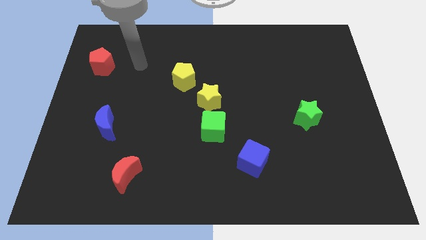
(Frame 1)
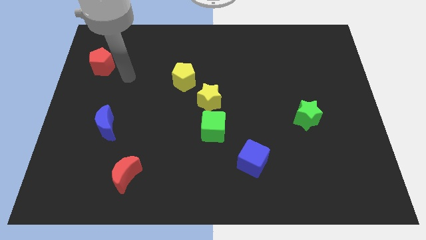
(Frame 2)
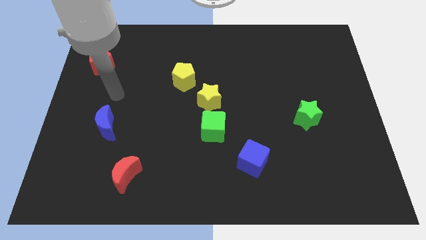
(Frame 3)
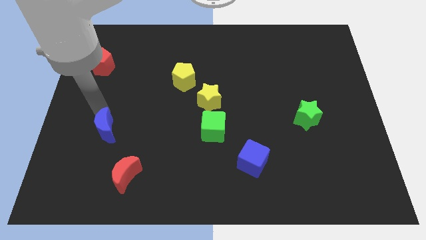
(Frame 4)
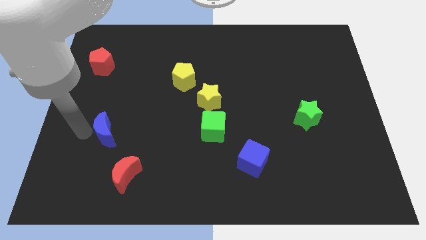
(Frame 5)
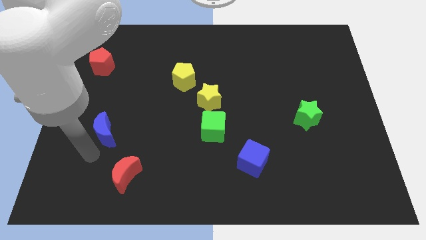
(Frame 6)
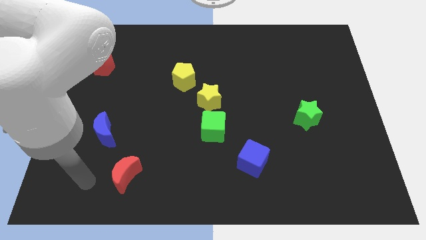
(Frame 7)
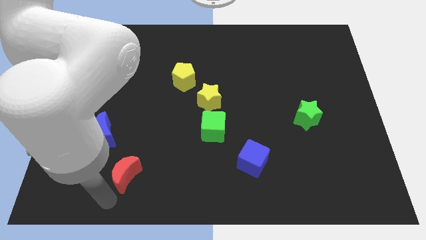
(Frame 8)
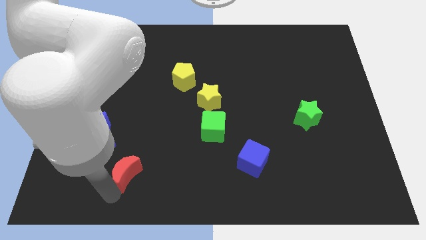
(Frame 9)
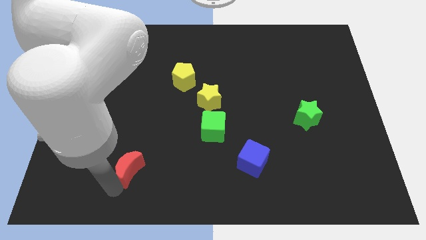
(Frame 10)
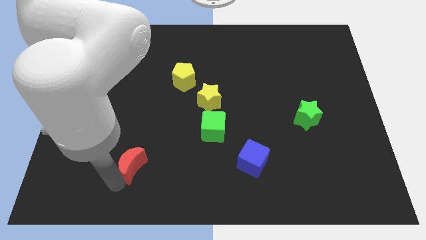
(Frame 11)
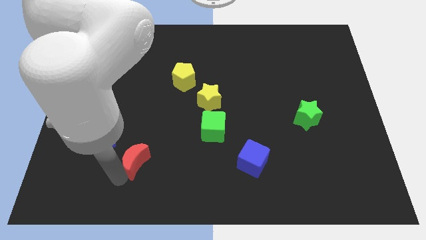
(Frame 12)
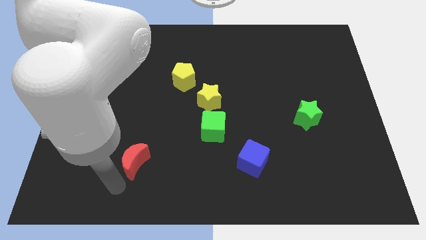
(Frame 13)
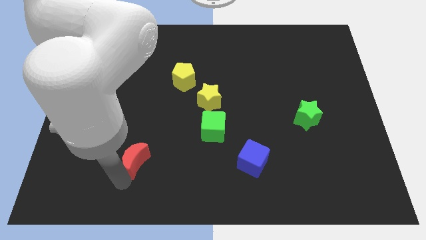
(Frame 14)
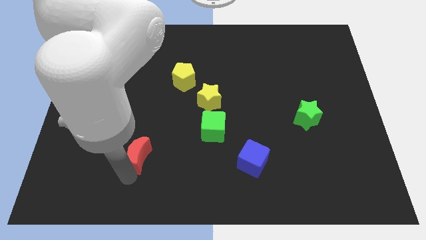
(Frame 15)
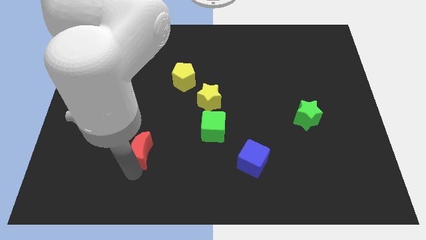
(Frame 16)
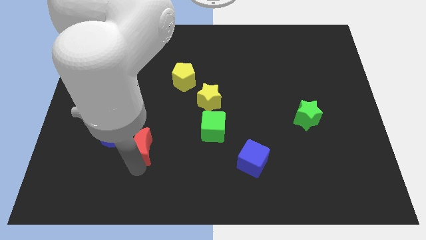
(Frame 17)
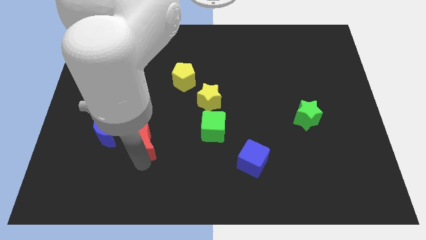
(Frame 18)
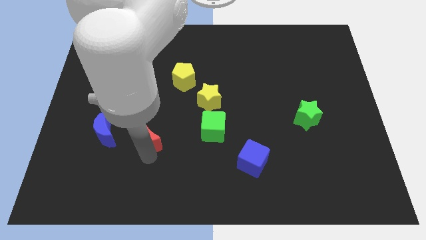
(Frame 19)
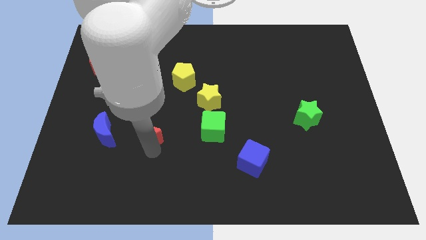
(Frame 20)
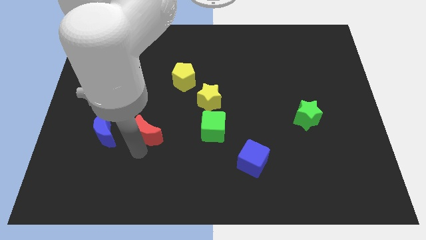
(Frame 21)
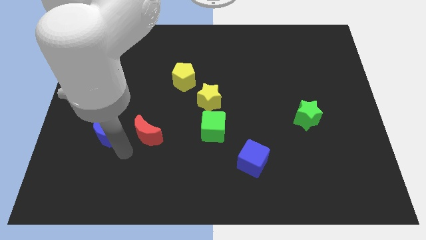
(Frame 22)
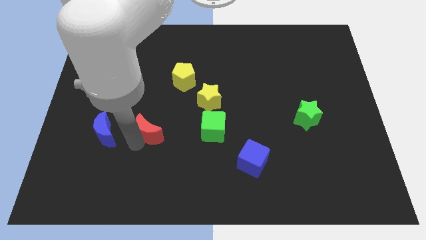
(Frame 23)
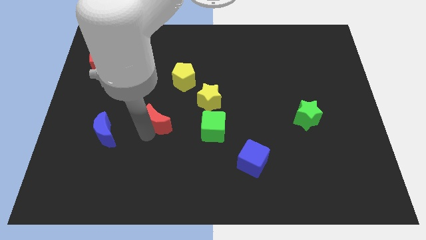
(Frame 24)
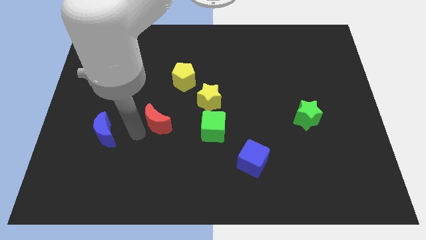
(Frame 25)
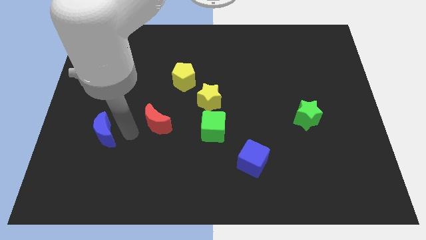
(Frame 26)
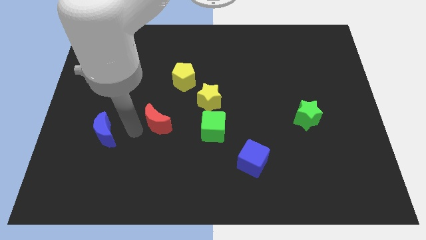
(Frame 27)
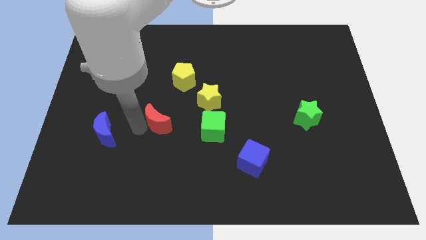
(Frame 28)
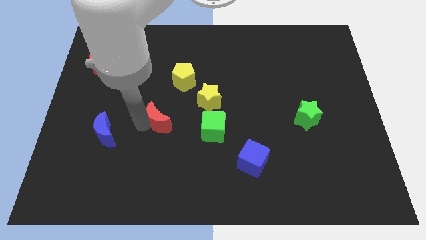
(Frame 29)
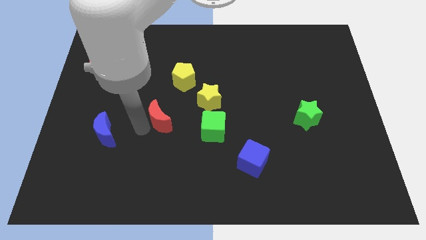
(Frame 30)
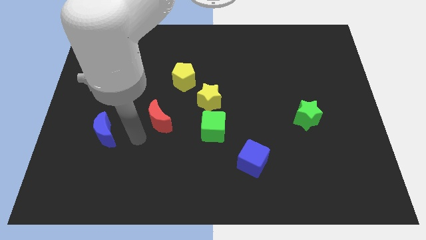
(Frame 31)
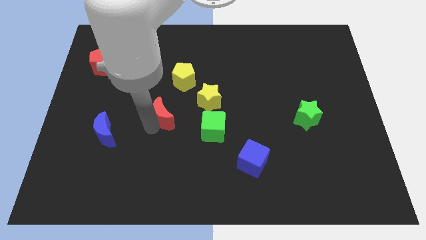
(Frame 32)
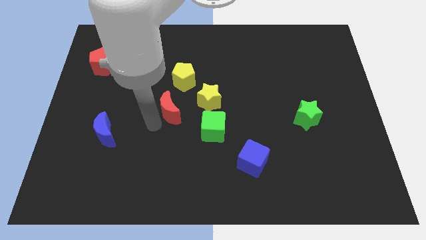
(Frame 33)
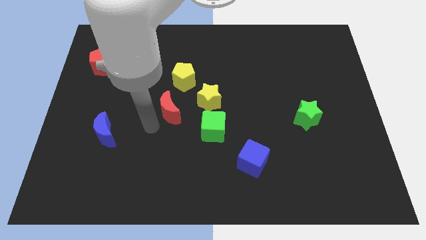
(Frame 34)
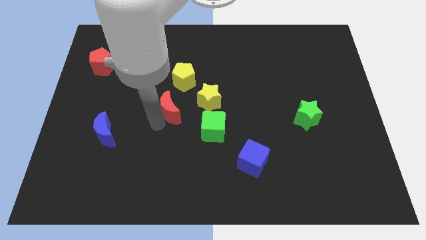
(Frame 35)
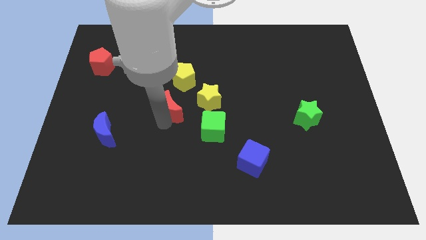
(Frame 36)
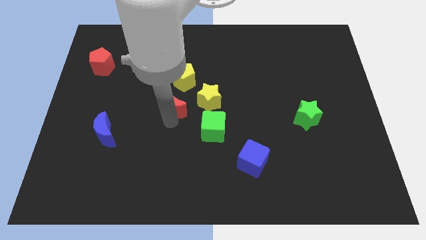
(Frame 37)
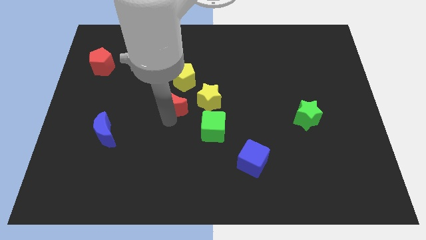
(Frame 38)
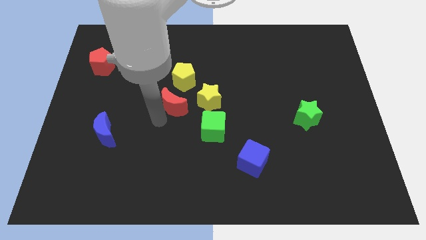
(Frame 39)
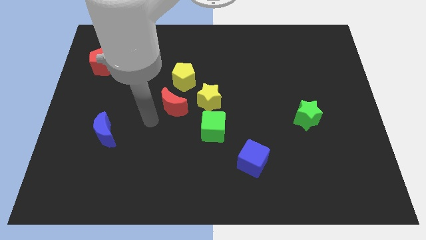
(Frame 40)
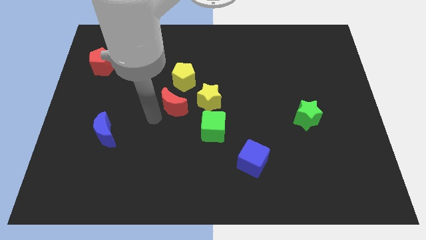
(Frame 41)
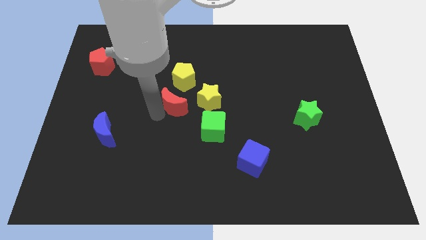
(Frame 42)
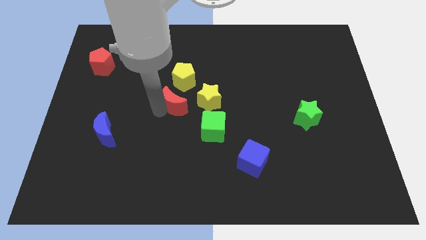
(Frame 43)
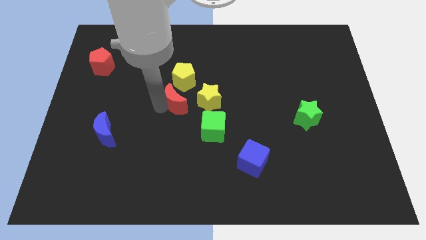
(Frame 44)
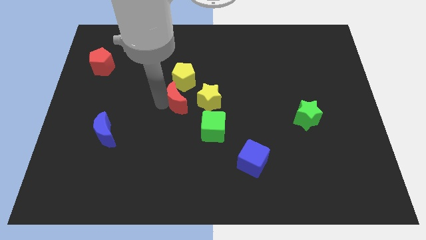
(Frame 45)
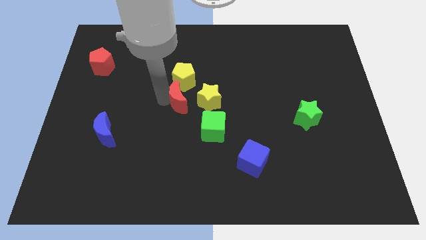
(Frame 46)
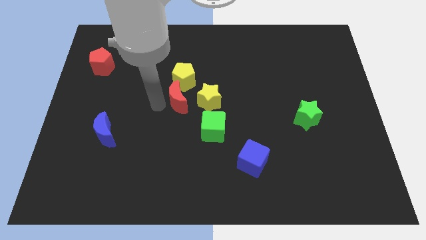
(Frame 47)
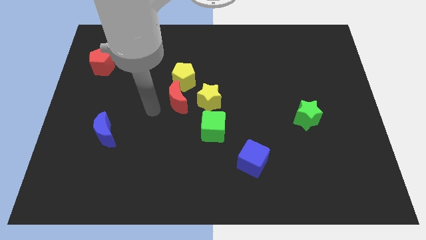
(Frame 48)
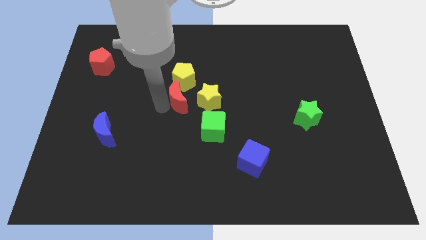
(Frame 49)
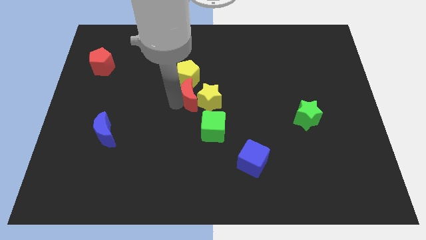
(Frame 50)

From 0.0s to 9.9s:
move the red moon up and then right

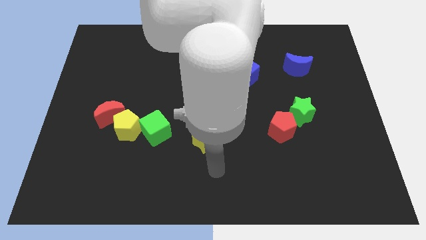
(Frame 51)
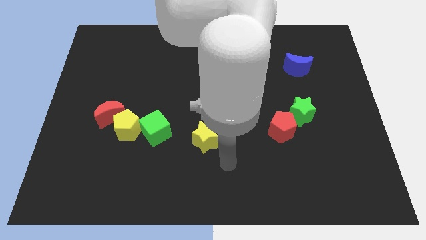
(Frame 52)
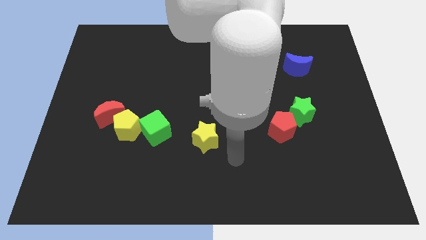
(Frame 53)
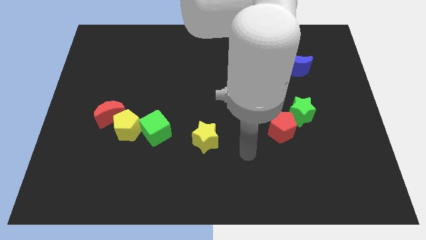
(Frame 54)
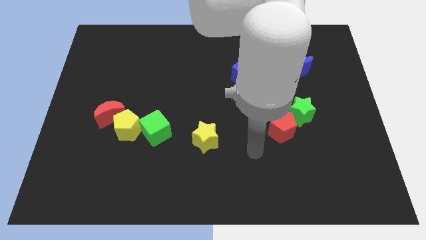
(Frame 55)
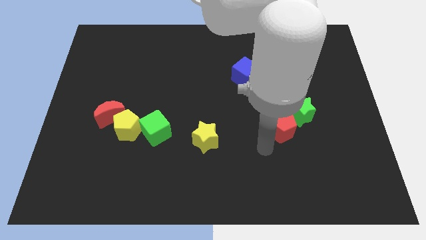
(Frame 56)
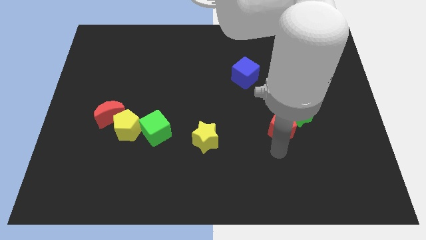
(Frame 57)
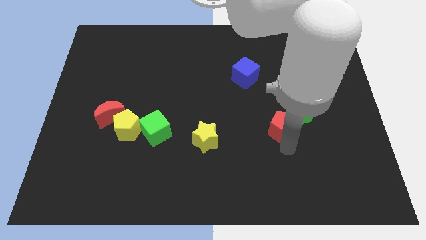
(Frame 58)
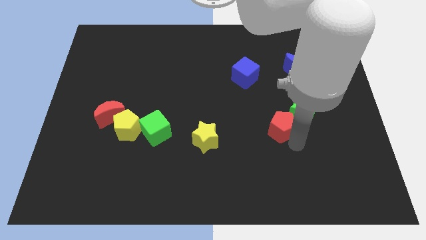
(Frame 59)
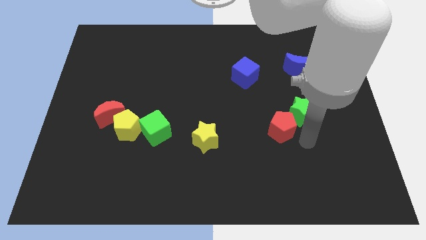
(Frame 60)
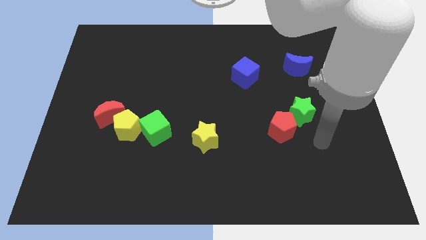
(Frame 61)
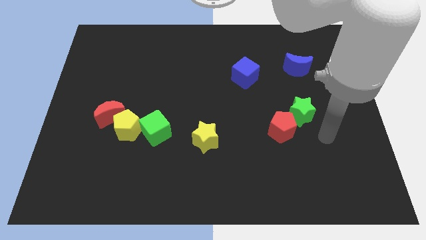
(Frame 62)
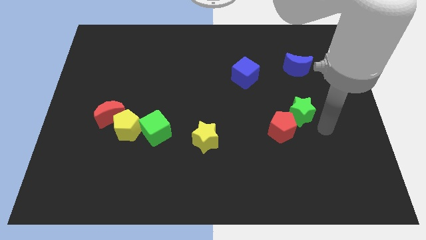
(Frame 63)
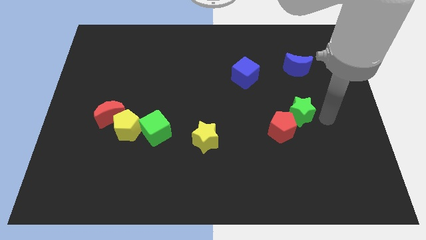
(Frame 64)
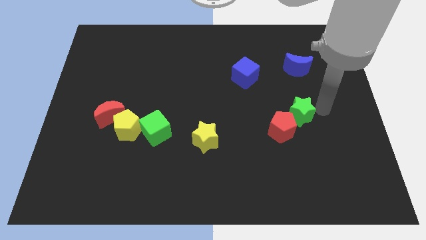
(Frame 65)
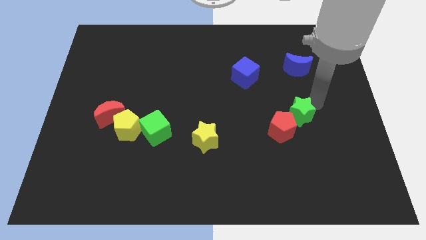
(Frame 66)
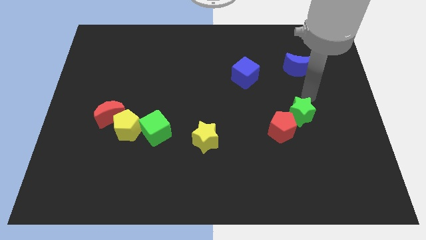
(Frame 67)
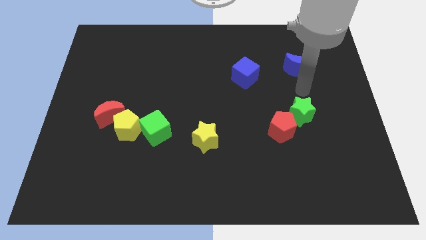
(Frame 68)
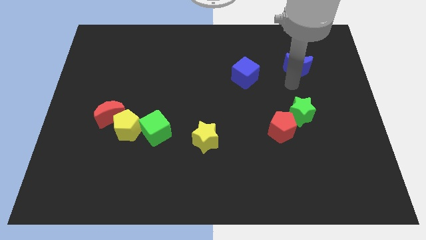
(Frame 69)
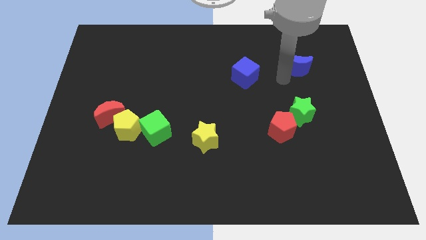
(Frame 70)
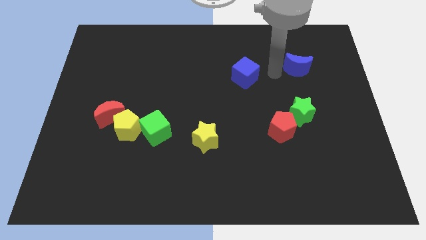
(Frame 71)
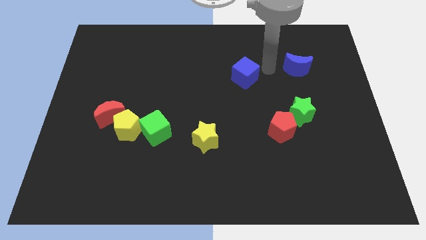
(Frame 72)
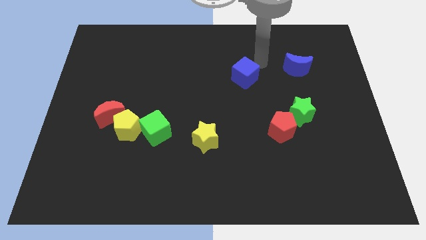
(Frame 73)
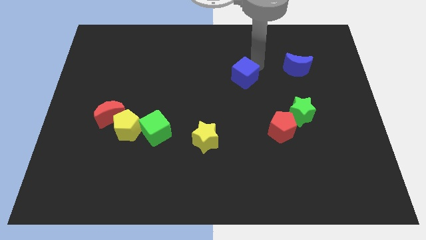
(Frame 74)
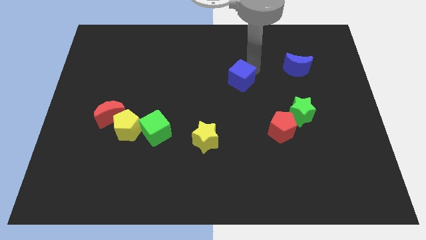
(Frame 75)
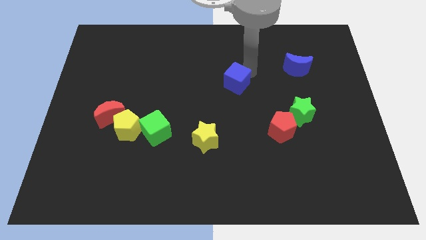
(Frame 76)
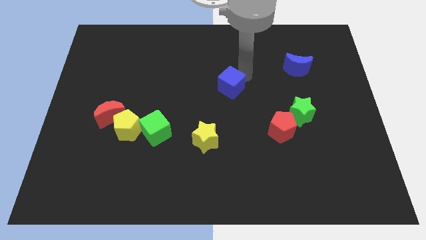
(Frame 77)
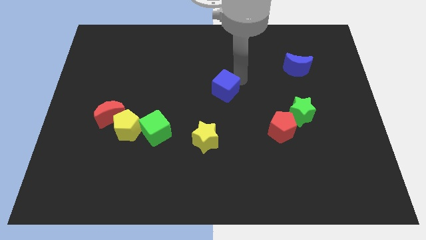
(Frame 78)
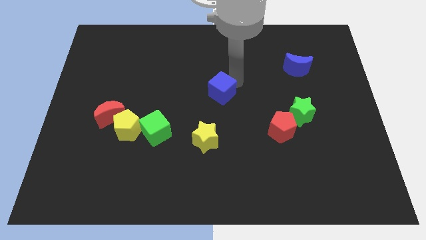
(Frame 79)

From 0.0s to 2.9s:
slide the blue cube downwards and then to the left slightly

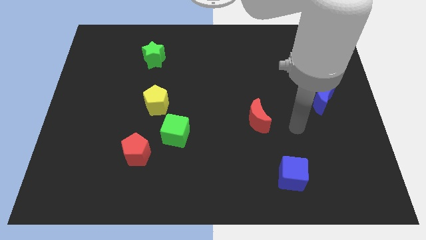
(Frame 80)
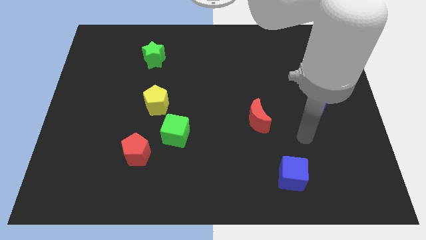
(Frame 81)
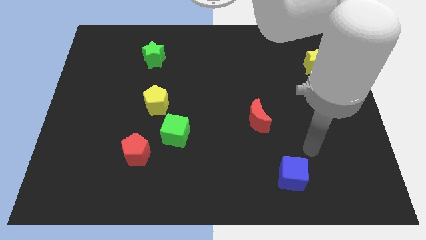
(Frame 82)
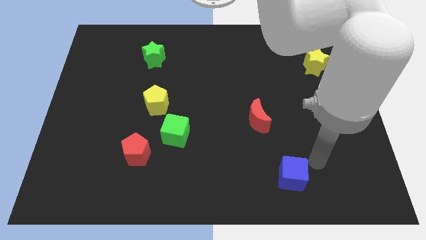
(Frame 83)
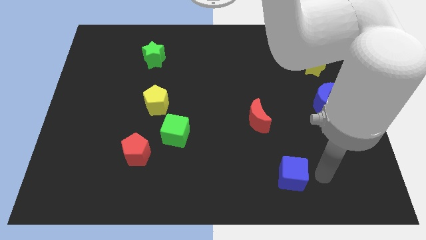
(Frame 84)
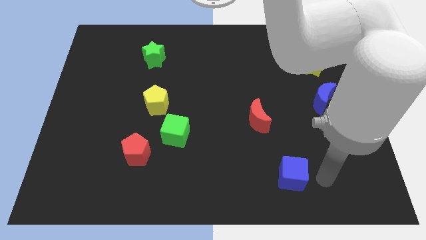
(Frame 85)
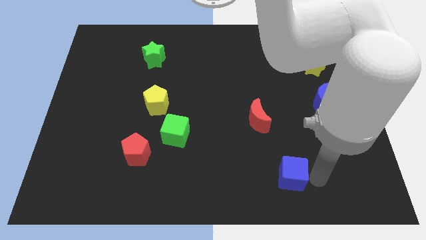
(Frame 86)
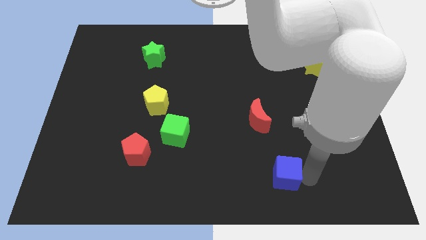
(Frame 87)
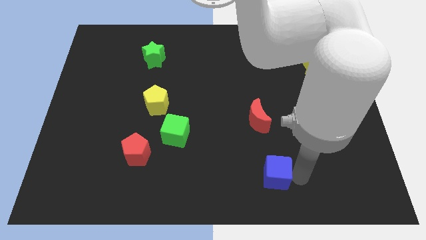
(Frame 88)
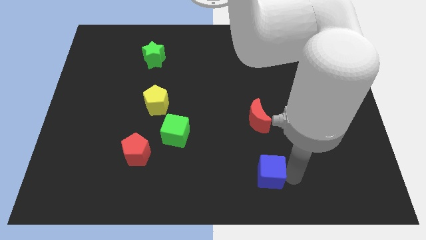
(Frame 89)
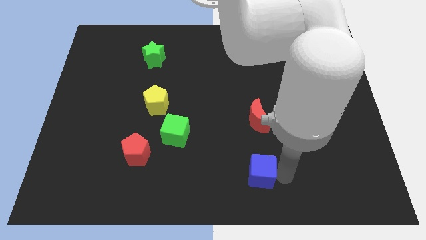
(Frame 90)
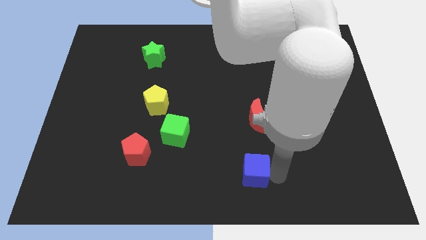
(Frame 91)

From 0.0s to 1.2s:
slightly push the blue cube to the left
